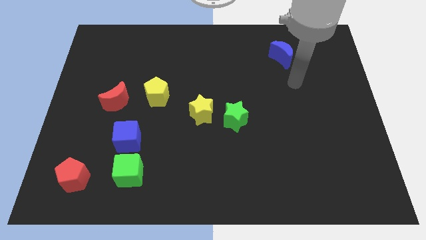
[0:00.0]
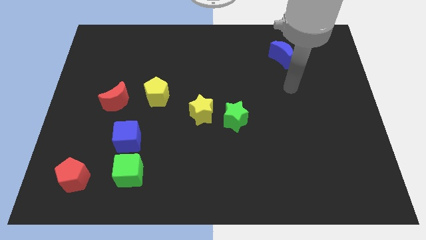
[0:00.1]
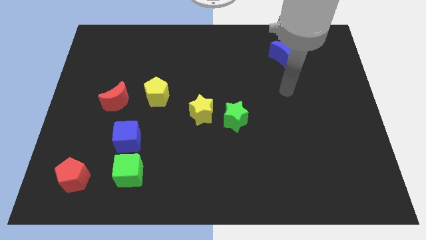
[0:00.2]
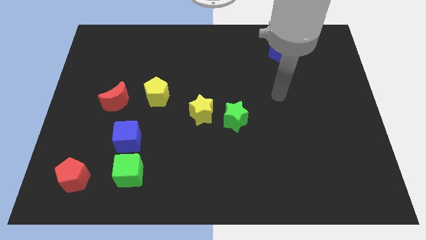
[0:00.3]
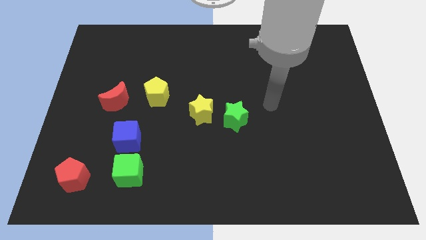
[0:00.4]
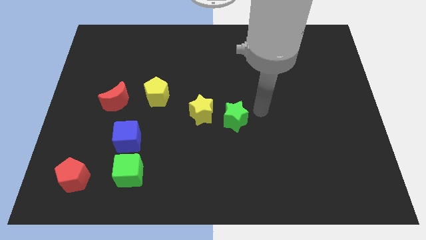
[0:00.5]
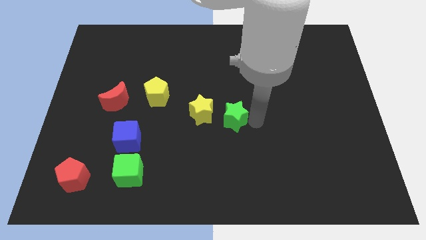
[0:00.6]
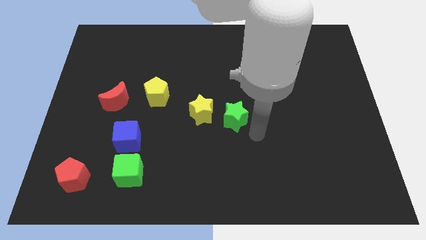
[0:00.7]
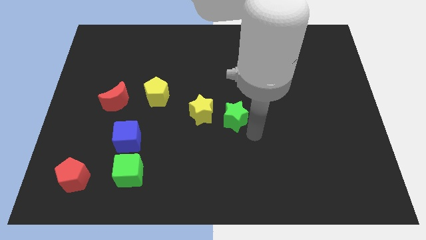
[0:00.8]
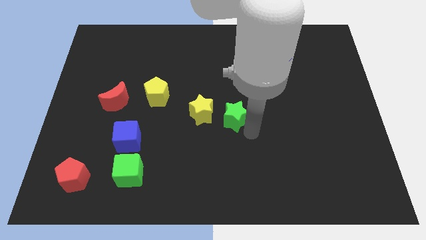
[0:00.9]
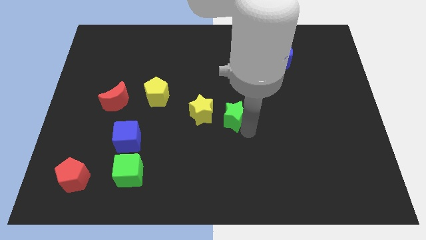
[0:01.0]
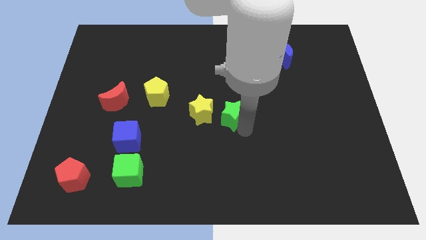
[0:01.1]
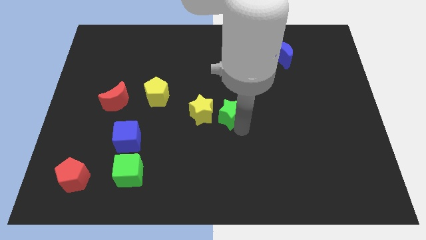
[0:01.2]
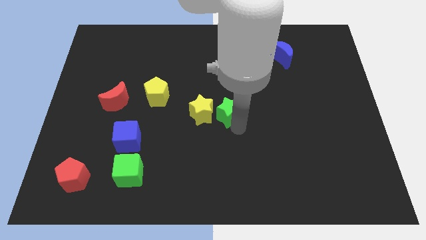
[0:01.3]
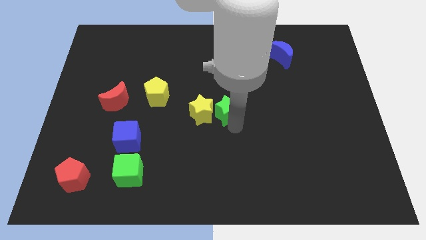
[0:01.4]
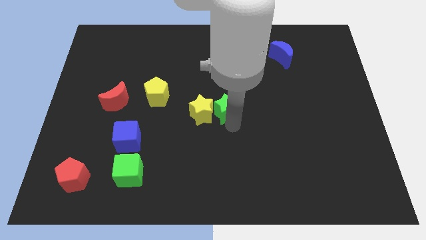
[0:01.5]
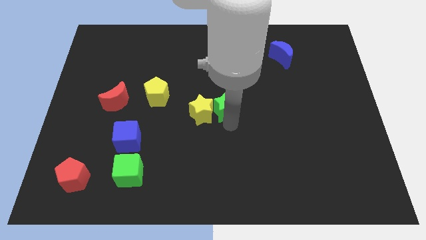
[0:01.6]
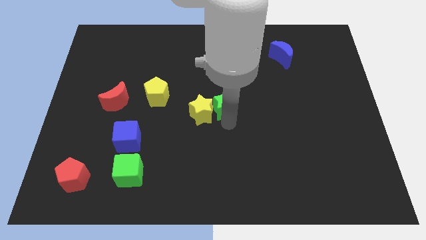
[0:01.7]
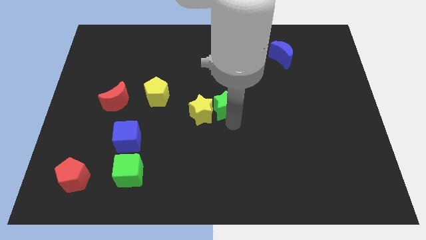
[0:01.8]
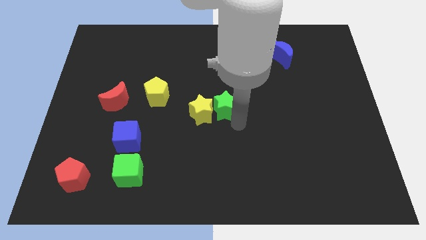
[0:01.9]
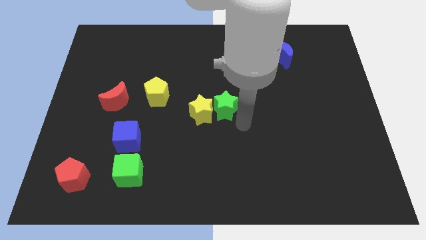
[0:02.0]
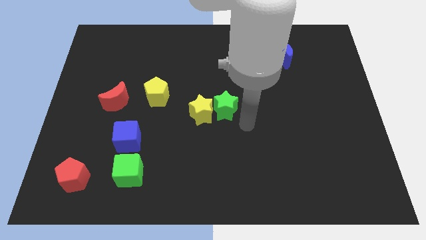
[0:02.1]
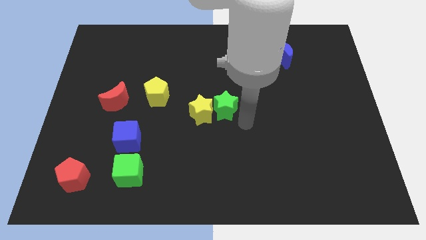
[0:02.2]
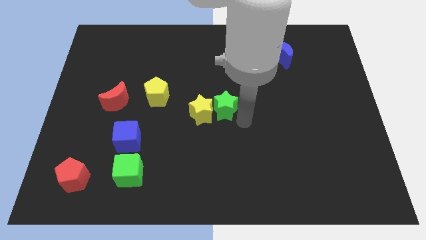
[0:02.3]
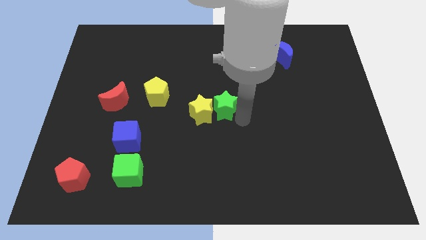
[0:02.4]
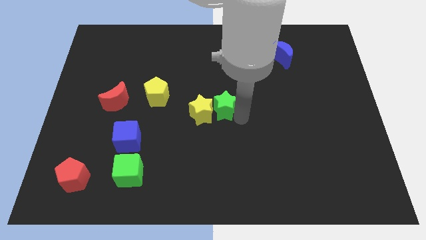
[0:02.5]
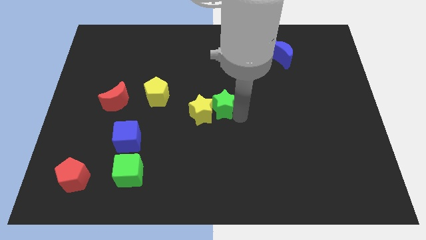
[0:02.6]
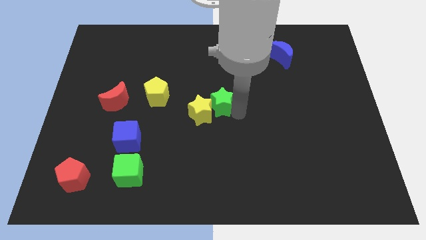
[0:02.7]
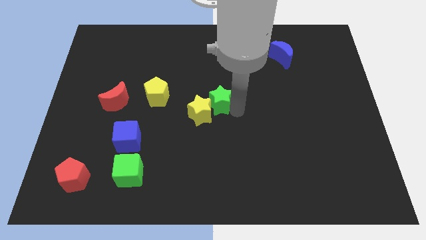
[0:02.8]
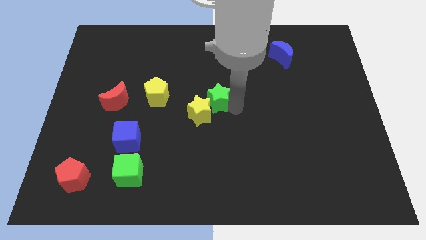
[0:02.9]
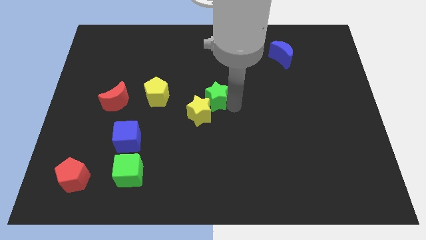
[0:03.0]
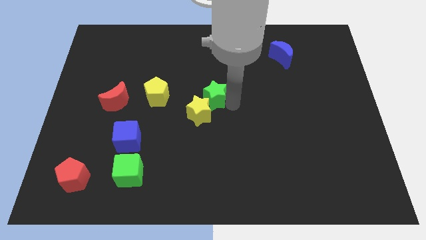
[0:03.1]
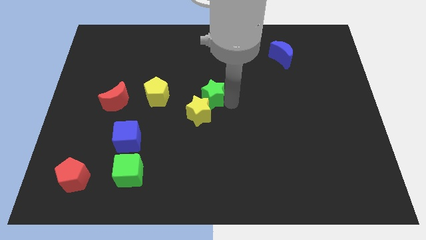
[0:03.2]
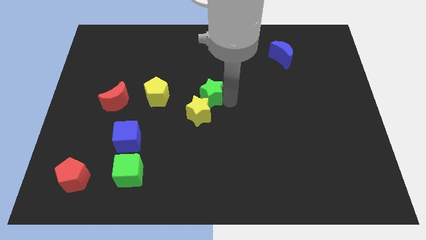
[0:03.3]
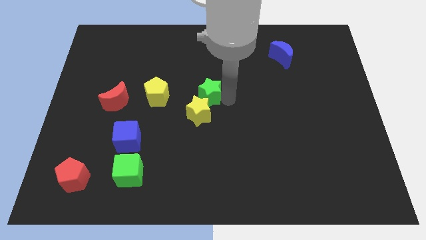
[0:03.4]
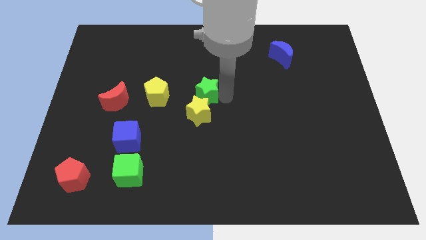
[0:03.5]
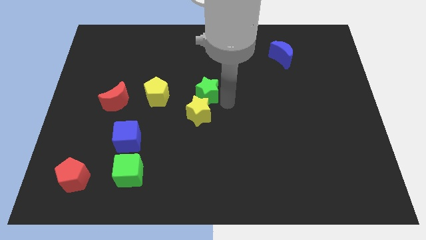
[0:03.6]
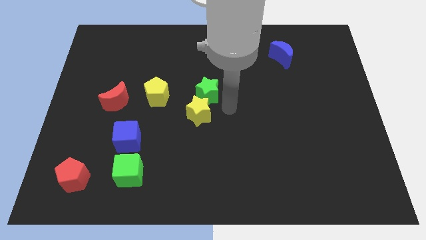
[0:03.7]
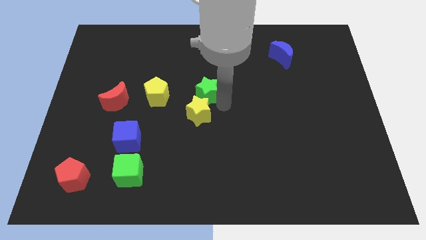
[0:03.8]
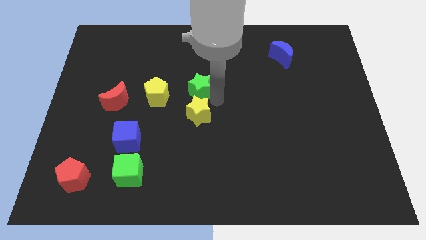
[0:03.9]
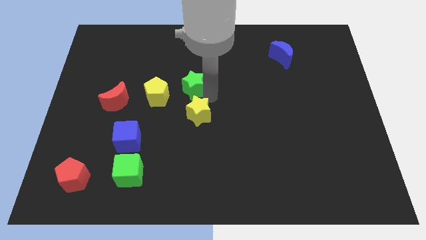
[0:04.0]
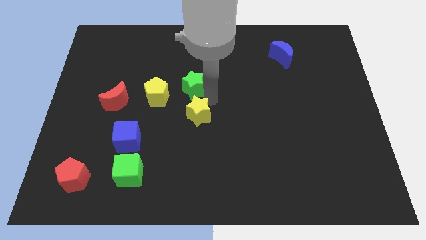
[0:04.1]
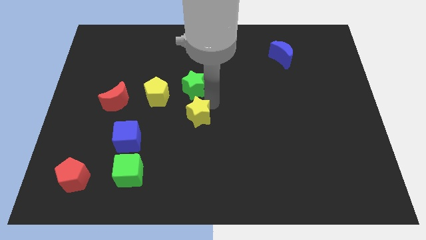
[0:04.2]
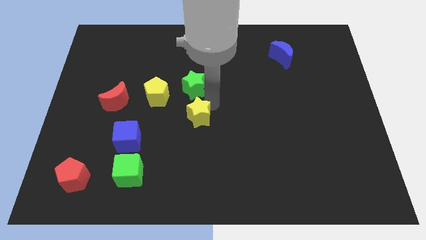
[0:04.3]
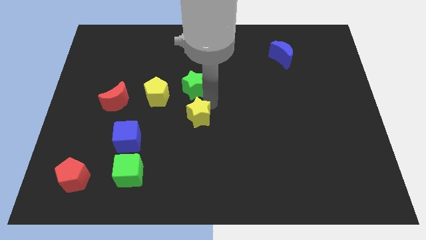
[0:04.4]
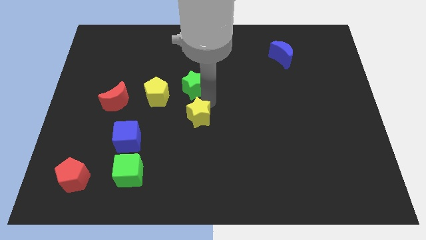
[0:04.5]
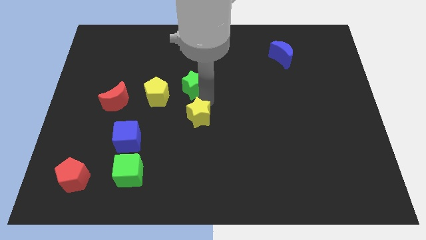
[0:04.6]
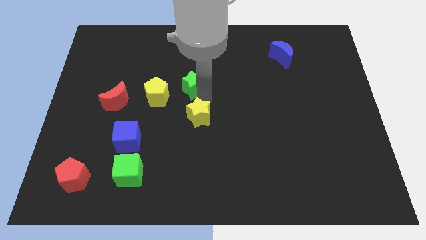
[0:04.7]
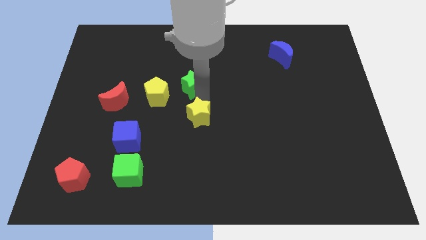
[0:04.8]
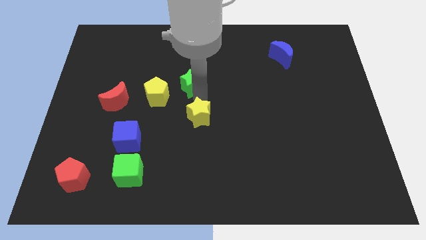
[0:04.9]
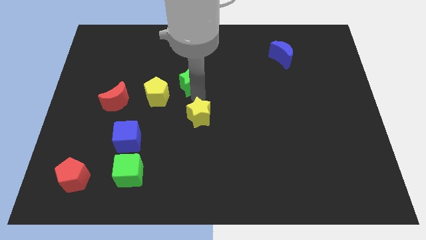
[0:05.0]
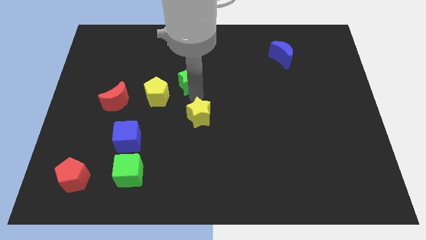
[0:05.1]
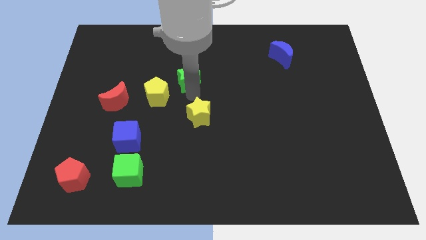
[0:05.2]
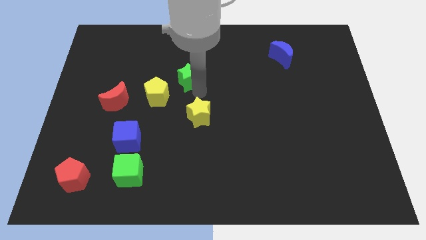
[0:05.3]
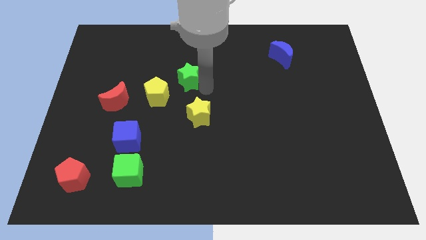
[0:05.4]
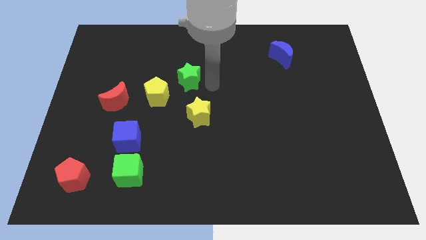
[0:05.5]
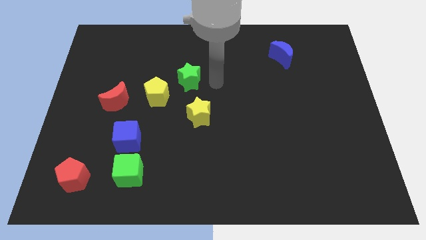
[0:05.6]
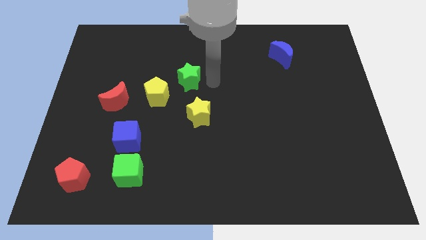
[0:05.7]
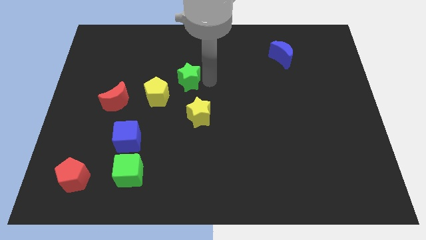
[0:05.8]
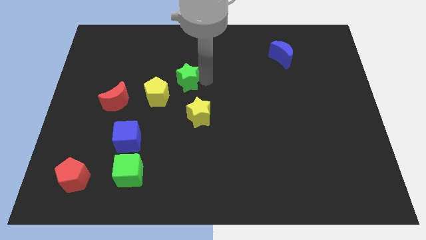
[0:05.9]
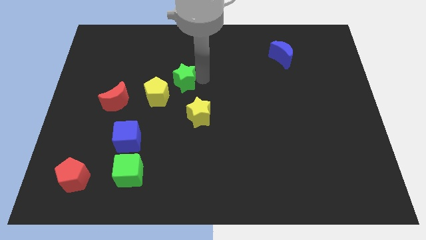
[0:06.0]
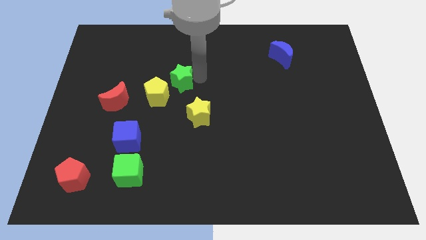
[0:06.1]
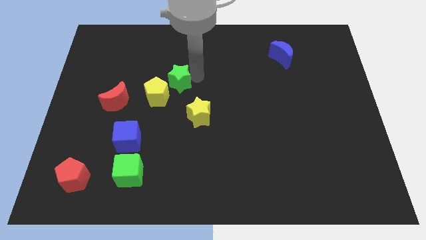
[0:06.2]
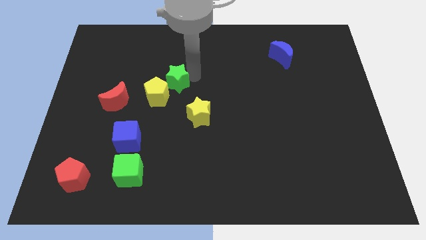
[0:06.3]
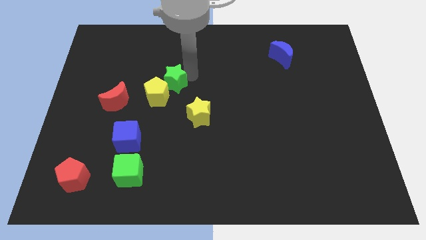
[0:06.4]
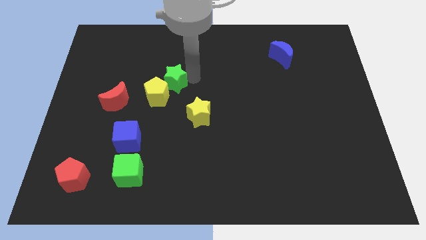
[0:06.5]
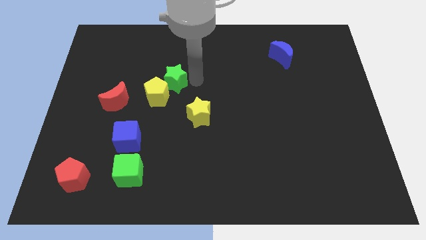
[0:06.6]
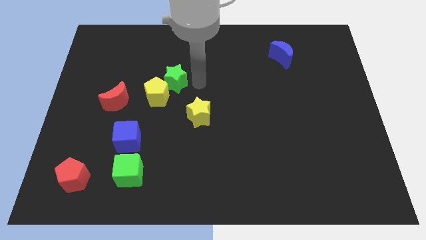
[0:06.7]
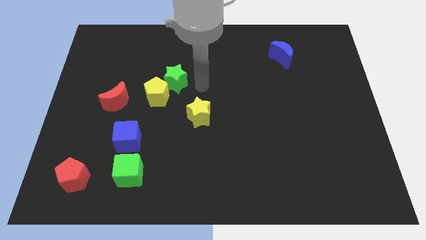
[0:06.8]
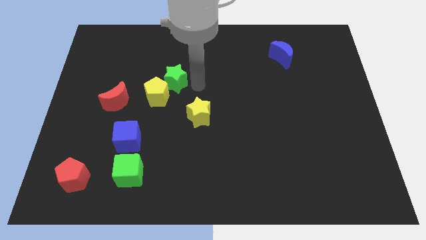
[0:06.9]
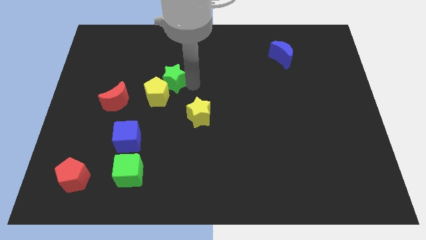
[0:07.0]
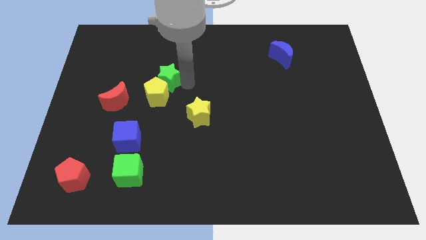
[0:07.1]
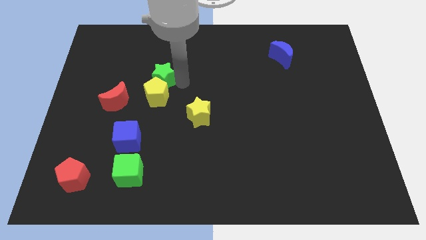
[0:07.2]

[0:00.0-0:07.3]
put the green star diagonally up and to the left of the yellow pentagon

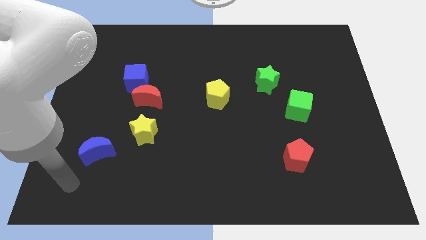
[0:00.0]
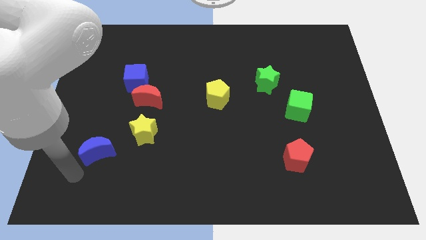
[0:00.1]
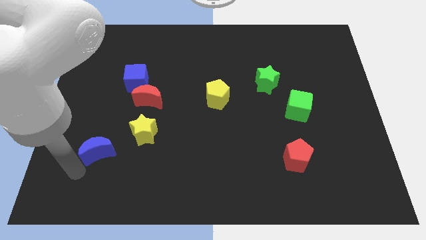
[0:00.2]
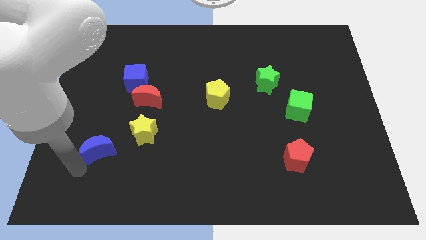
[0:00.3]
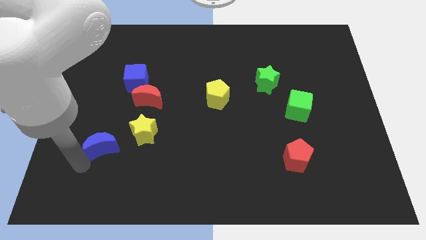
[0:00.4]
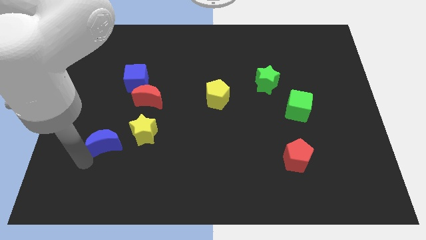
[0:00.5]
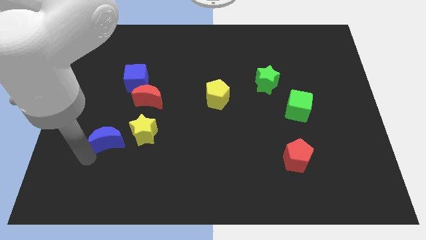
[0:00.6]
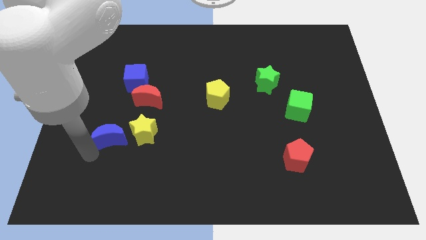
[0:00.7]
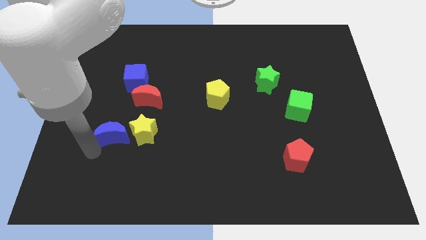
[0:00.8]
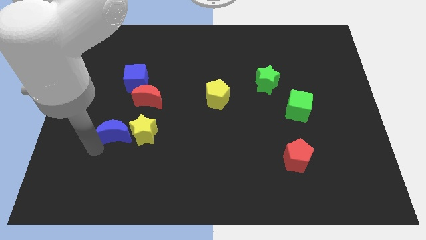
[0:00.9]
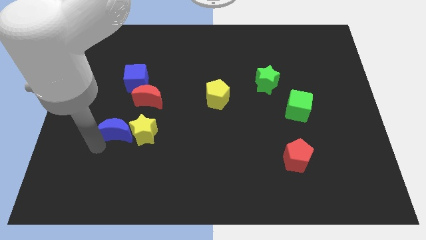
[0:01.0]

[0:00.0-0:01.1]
slide the blue moon below the blue cube

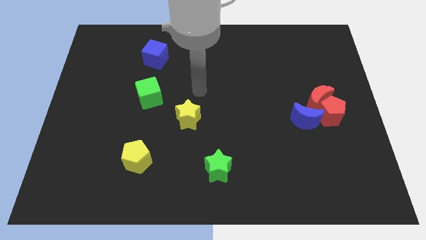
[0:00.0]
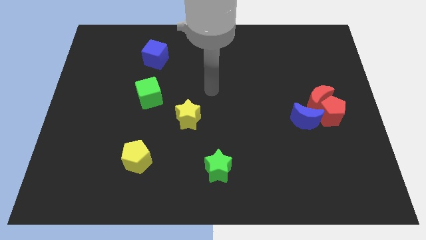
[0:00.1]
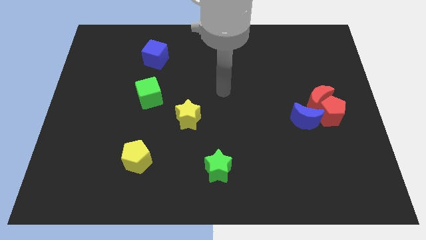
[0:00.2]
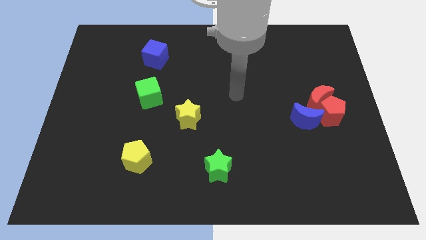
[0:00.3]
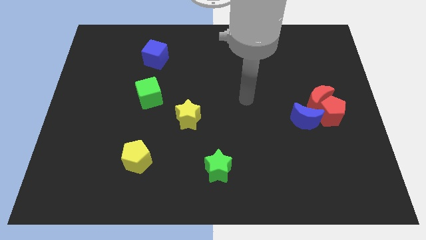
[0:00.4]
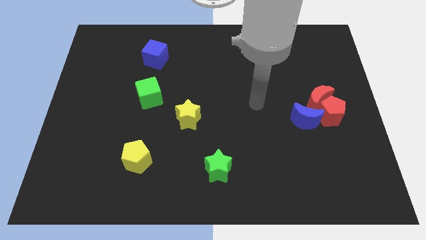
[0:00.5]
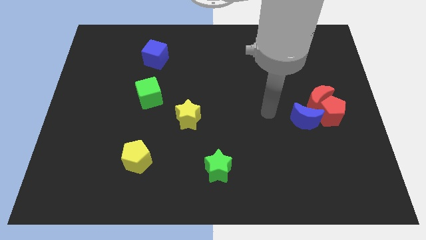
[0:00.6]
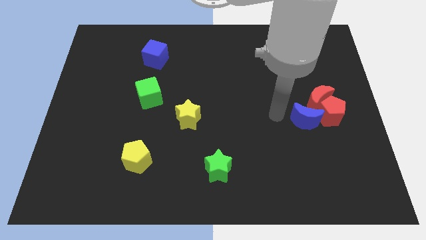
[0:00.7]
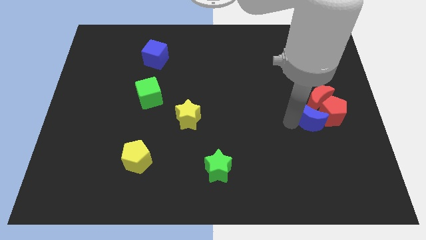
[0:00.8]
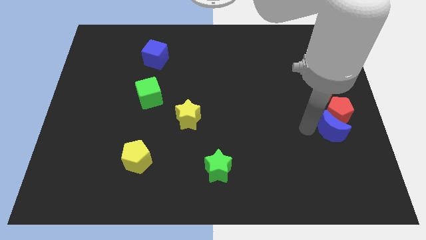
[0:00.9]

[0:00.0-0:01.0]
slide the red pentagon above the blue moon
